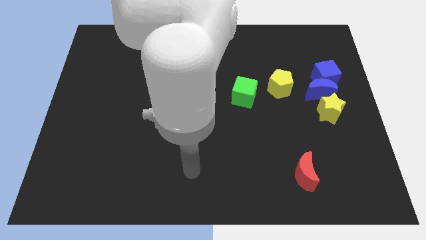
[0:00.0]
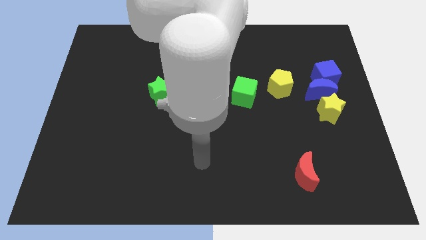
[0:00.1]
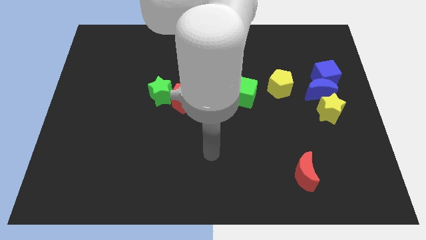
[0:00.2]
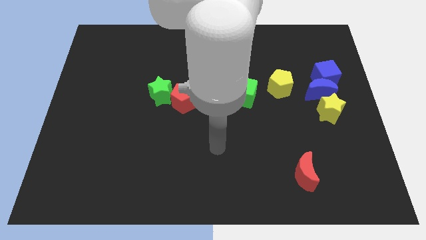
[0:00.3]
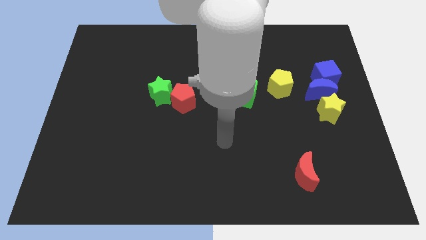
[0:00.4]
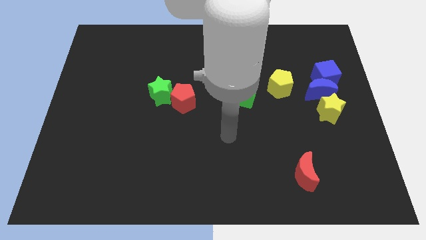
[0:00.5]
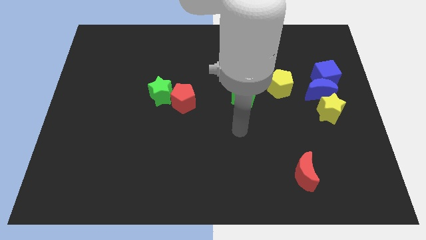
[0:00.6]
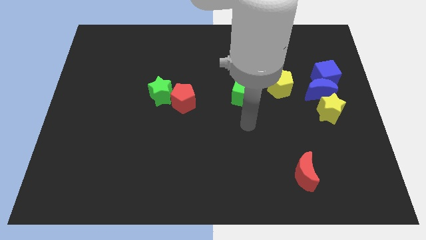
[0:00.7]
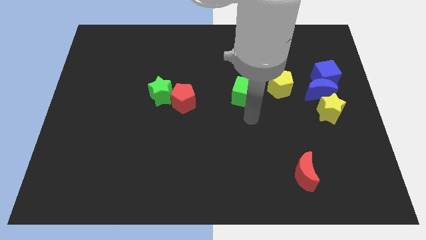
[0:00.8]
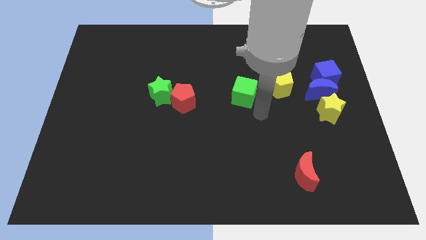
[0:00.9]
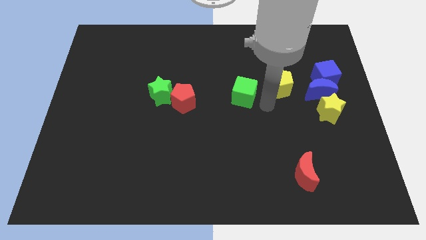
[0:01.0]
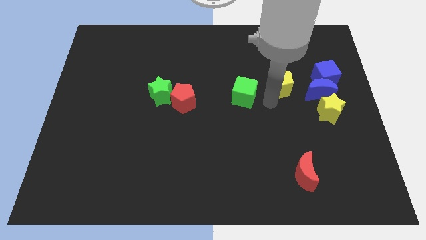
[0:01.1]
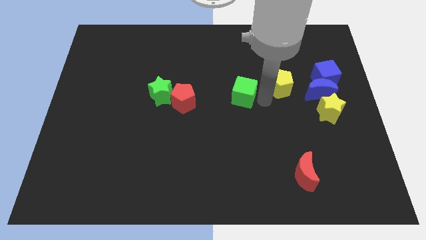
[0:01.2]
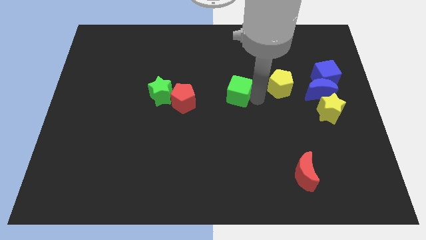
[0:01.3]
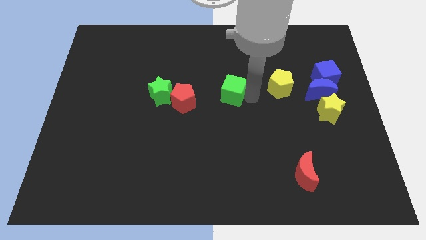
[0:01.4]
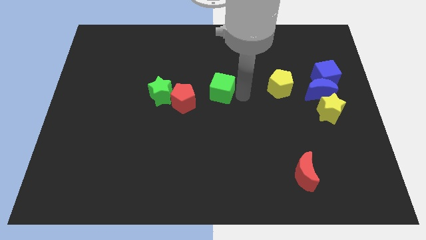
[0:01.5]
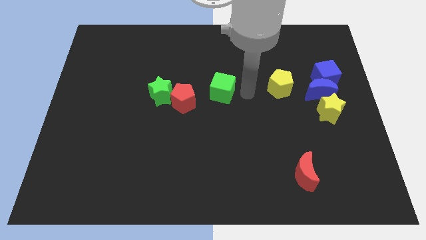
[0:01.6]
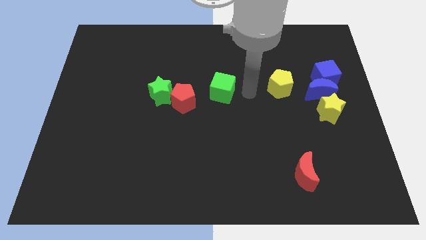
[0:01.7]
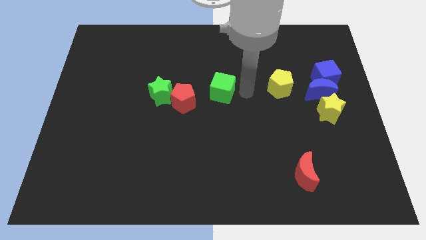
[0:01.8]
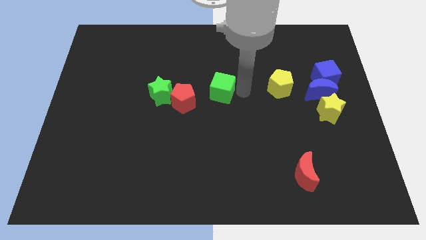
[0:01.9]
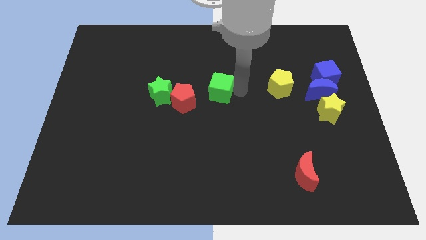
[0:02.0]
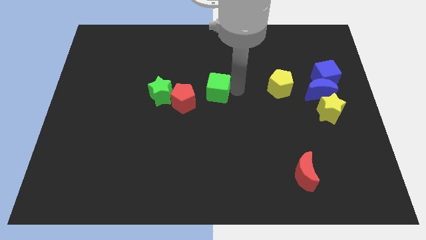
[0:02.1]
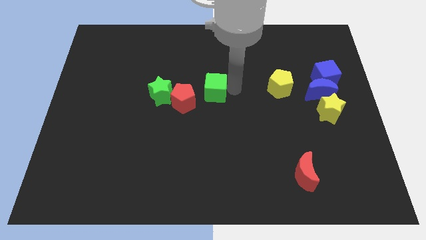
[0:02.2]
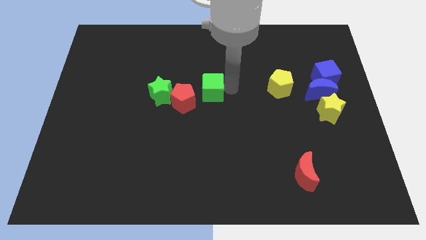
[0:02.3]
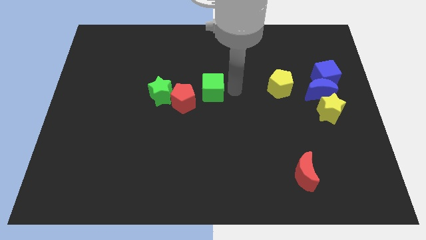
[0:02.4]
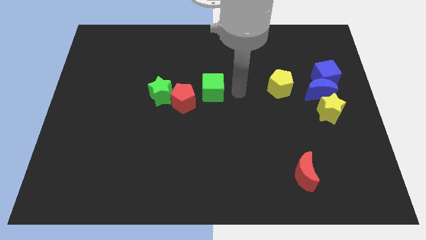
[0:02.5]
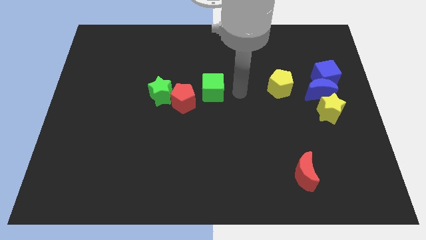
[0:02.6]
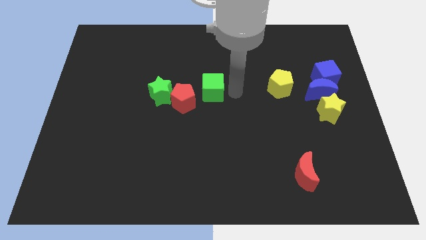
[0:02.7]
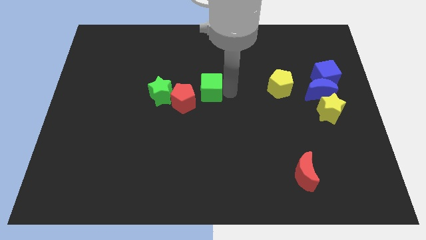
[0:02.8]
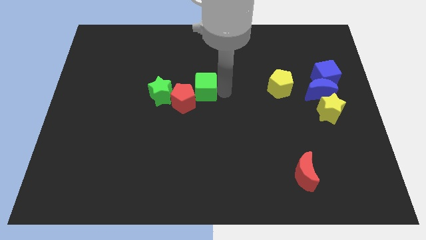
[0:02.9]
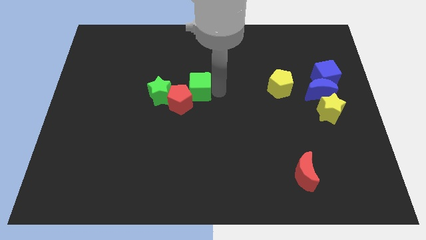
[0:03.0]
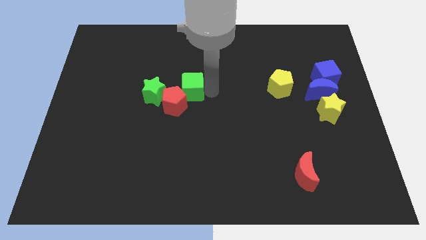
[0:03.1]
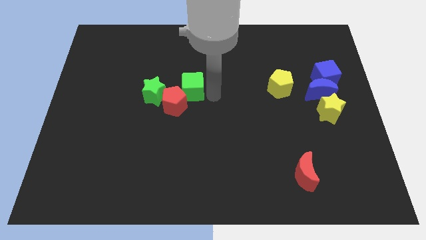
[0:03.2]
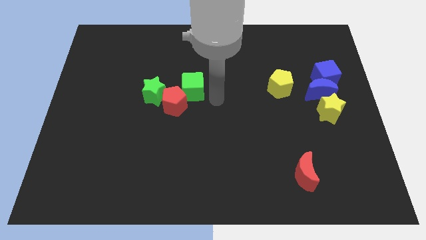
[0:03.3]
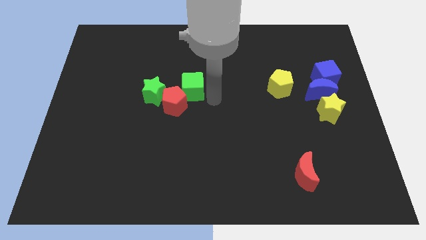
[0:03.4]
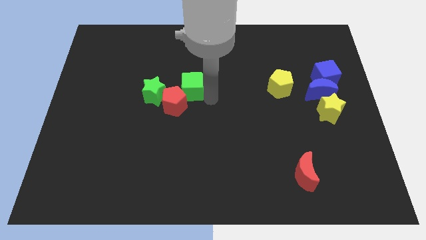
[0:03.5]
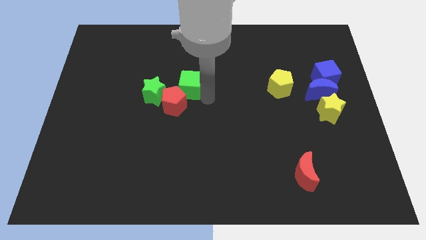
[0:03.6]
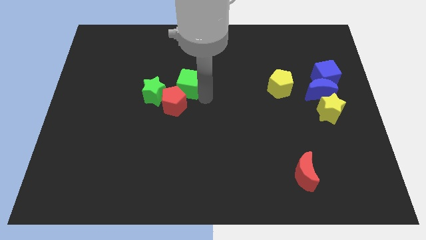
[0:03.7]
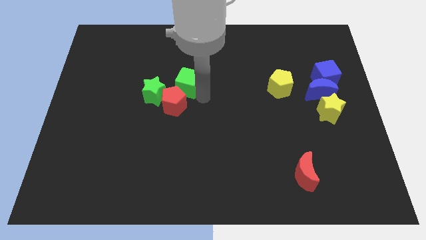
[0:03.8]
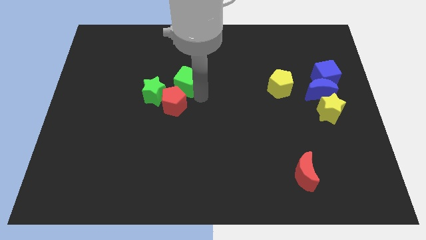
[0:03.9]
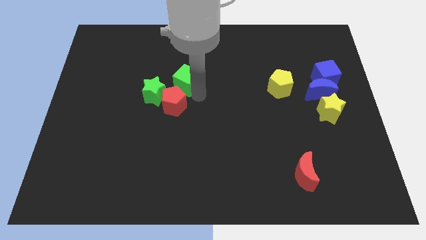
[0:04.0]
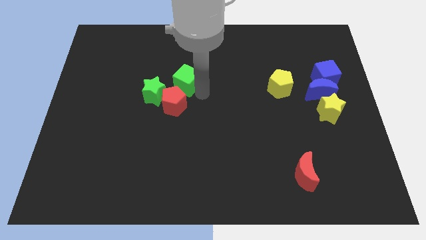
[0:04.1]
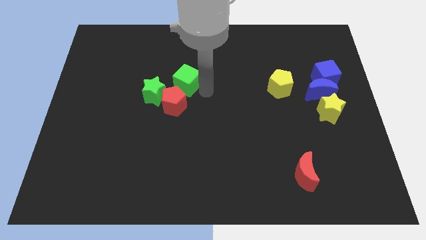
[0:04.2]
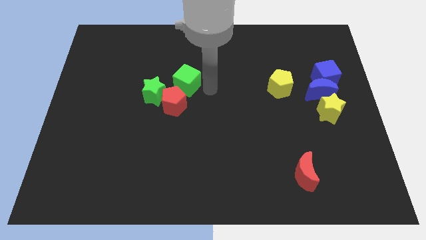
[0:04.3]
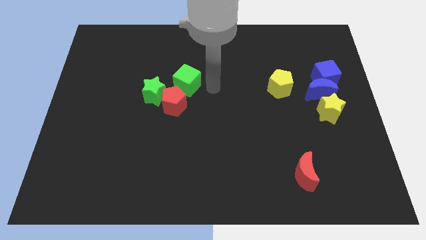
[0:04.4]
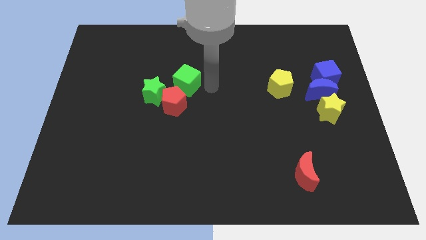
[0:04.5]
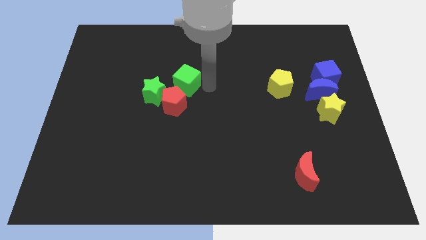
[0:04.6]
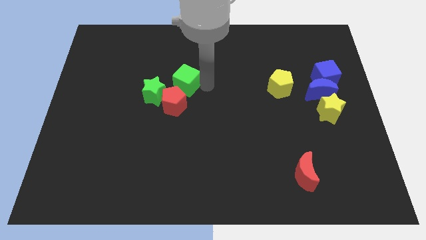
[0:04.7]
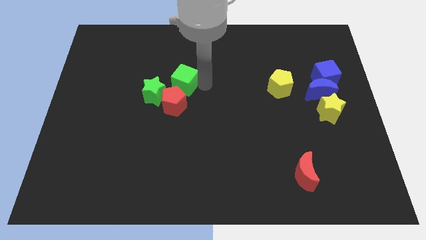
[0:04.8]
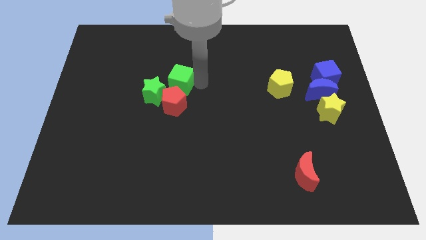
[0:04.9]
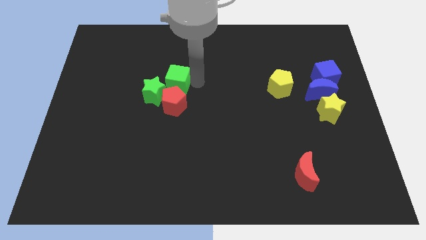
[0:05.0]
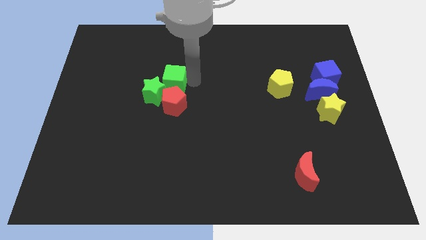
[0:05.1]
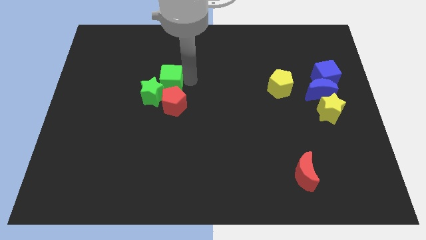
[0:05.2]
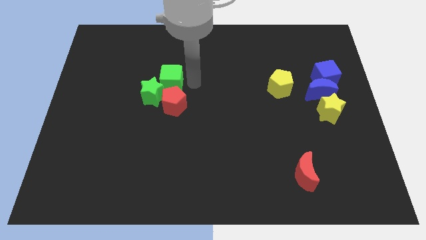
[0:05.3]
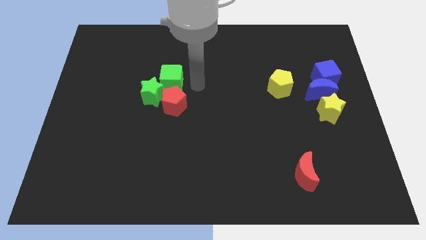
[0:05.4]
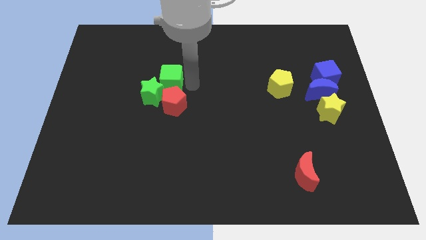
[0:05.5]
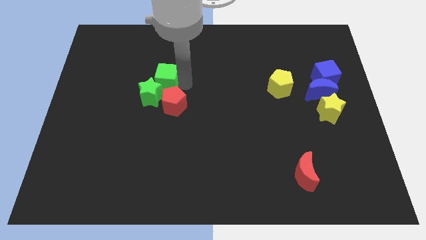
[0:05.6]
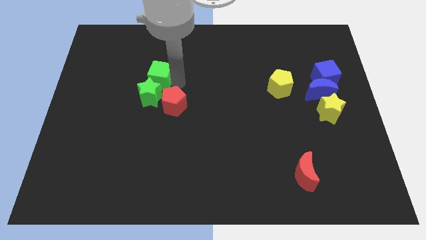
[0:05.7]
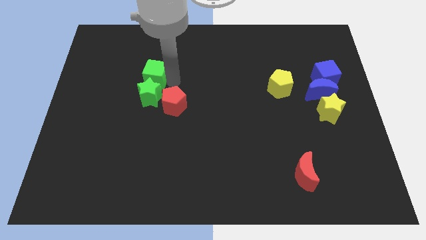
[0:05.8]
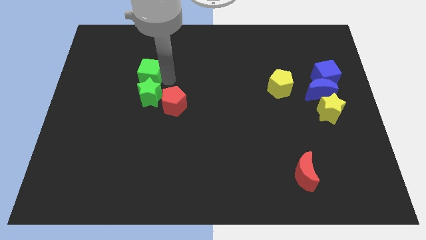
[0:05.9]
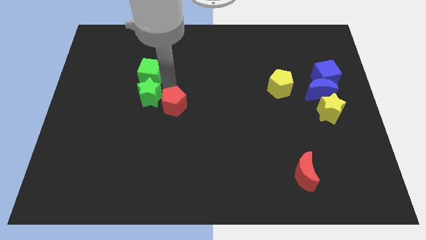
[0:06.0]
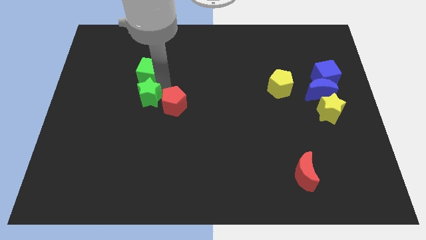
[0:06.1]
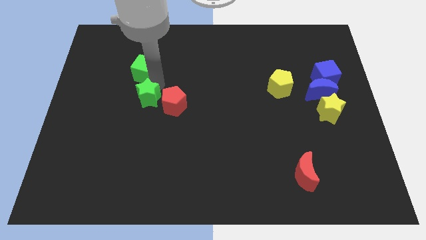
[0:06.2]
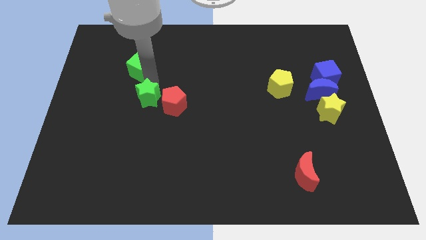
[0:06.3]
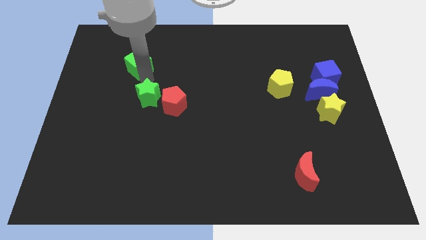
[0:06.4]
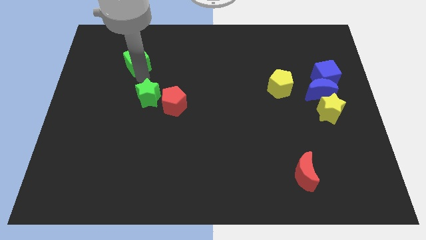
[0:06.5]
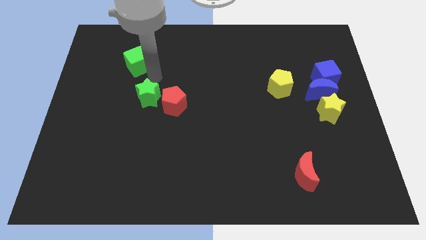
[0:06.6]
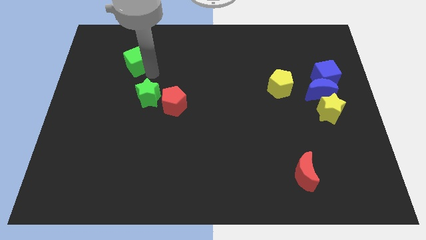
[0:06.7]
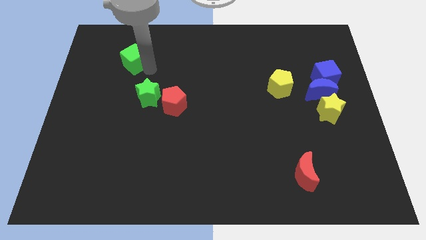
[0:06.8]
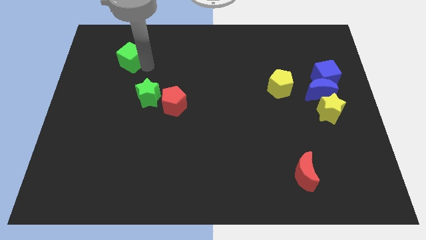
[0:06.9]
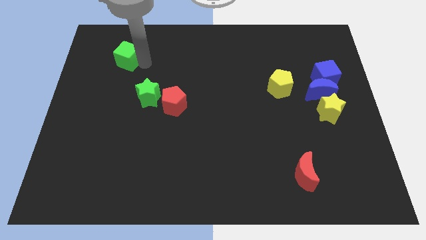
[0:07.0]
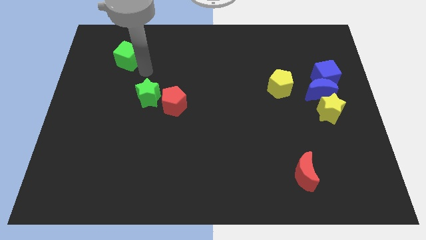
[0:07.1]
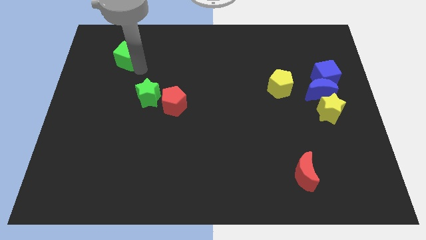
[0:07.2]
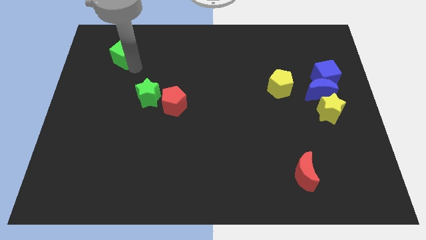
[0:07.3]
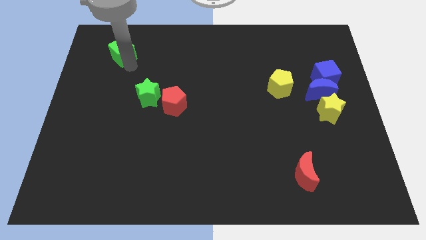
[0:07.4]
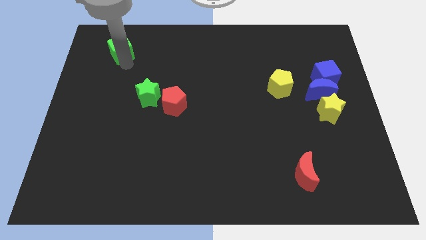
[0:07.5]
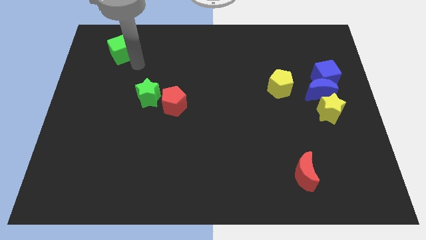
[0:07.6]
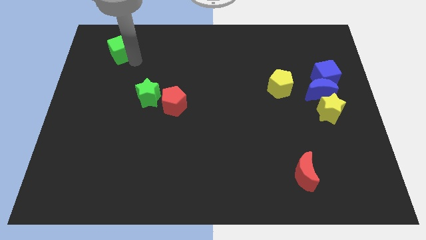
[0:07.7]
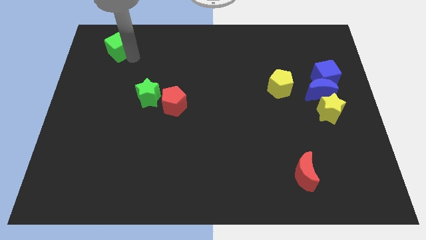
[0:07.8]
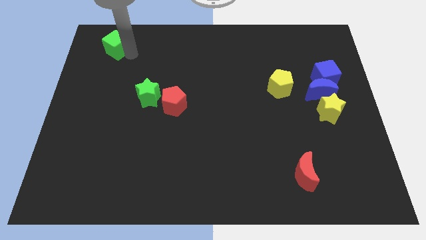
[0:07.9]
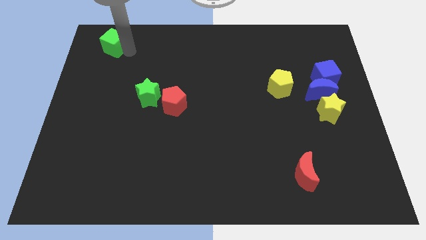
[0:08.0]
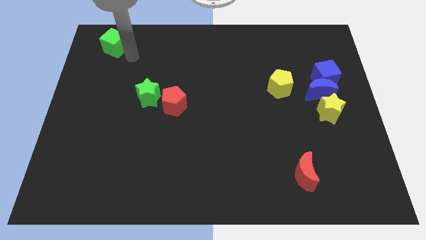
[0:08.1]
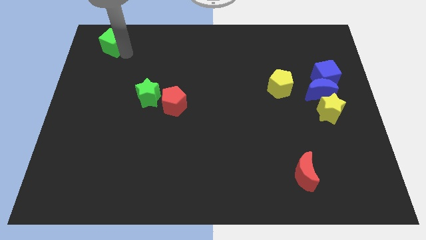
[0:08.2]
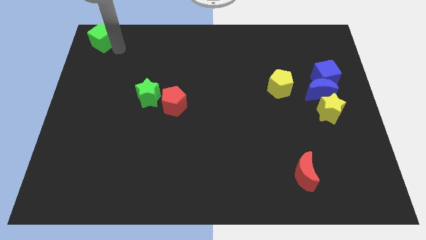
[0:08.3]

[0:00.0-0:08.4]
push the green cube to the top left of the board
